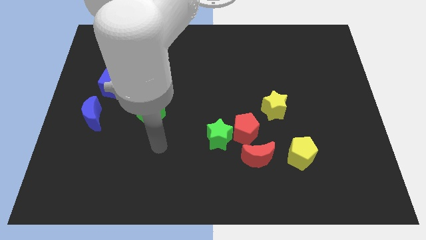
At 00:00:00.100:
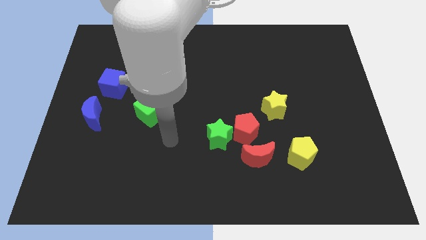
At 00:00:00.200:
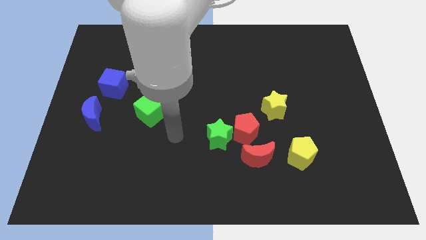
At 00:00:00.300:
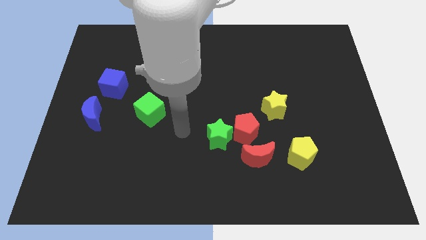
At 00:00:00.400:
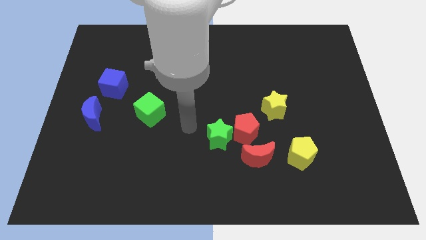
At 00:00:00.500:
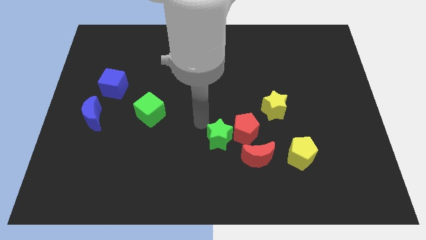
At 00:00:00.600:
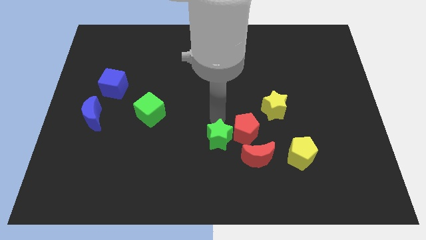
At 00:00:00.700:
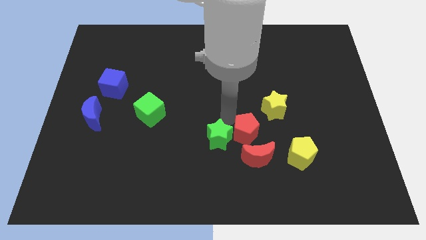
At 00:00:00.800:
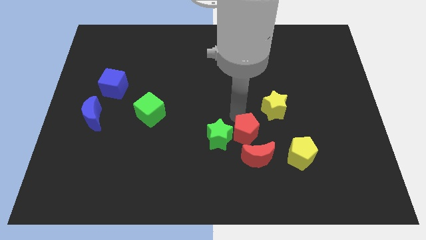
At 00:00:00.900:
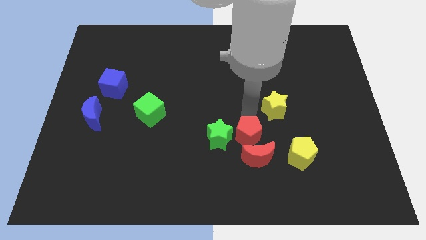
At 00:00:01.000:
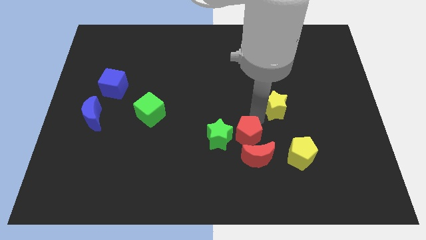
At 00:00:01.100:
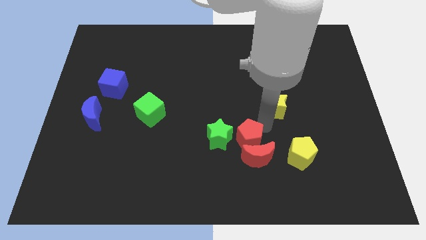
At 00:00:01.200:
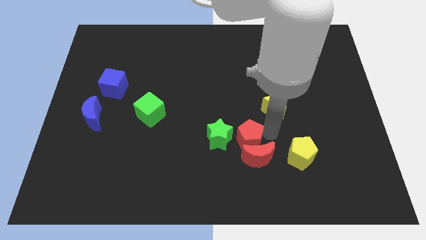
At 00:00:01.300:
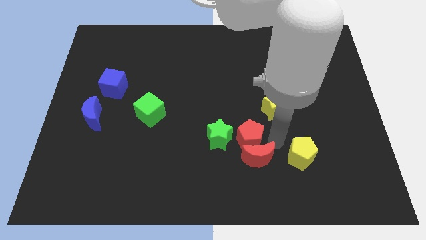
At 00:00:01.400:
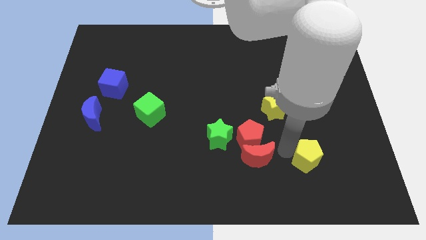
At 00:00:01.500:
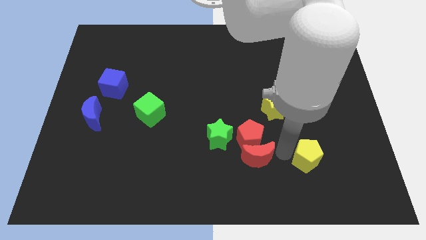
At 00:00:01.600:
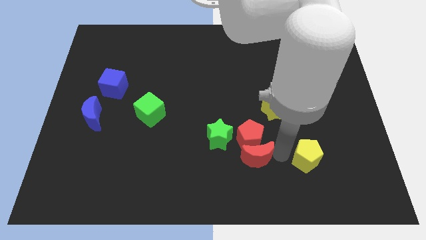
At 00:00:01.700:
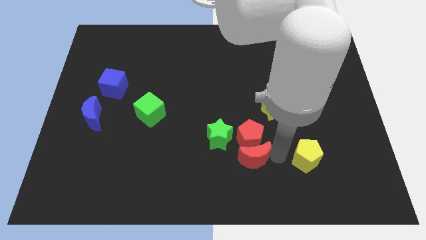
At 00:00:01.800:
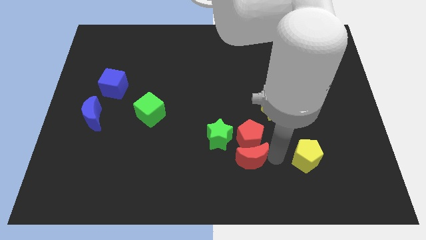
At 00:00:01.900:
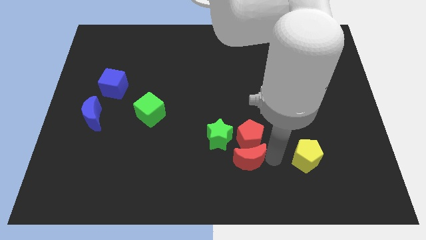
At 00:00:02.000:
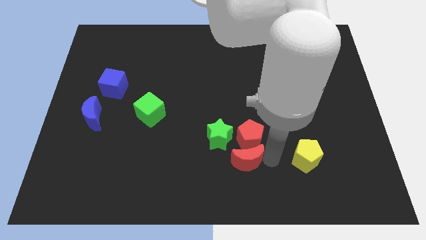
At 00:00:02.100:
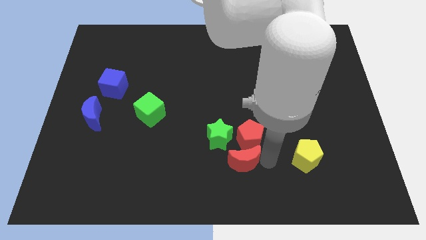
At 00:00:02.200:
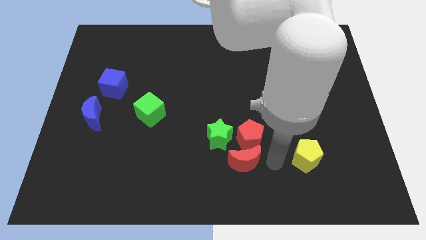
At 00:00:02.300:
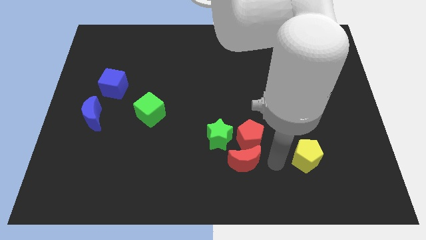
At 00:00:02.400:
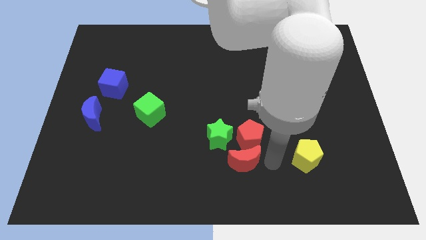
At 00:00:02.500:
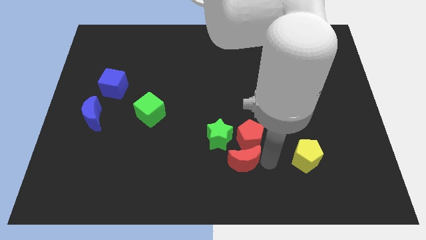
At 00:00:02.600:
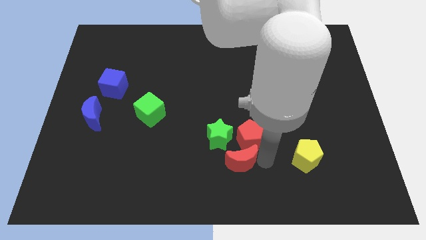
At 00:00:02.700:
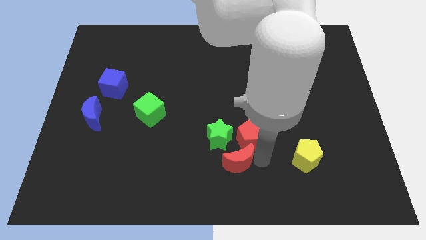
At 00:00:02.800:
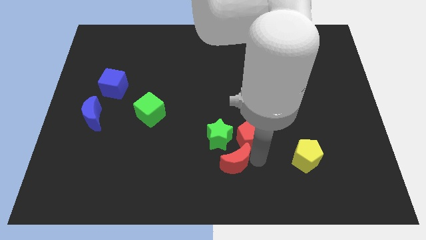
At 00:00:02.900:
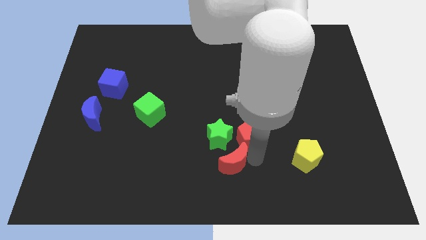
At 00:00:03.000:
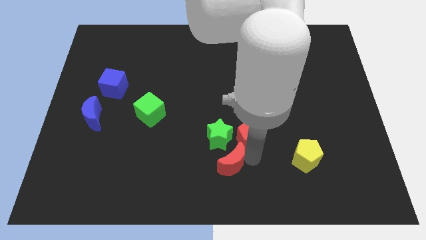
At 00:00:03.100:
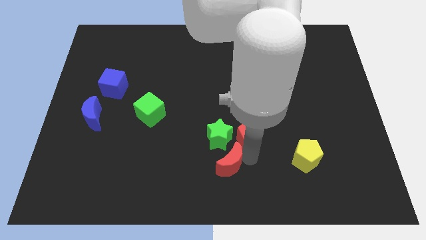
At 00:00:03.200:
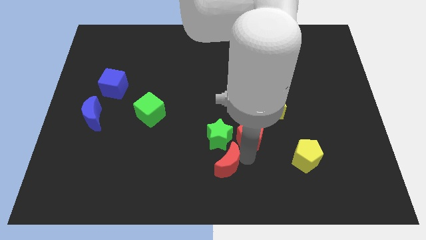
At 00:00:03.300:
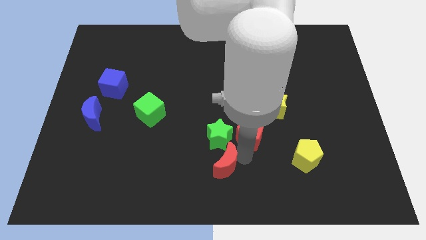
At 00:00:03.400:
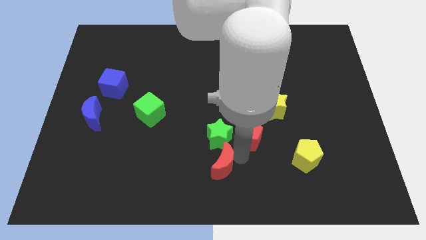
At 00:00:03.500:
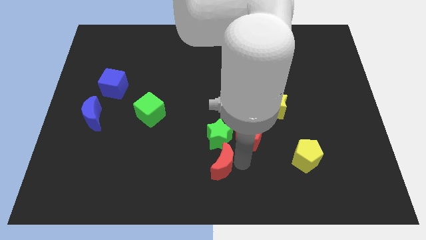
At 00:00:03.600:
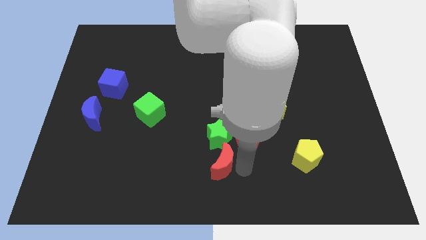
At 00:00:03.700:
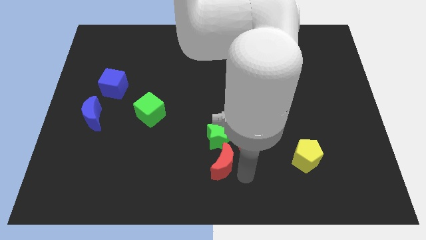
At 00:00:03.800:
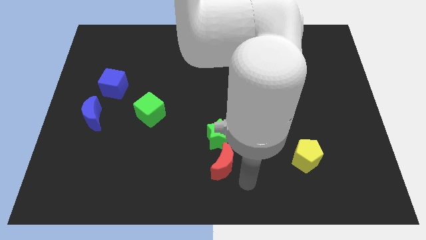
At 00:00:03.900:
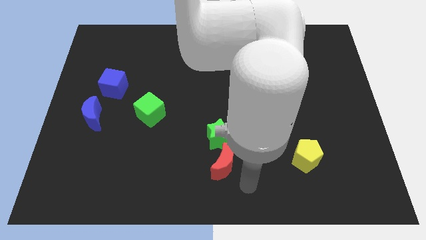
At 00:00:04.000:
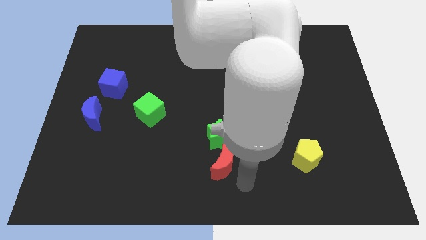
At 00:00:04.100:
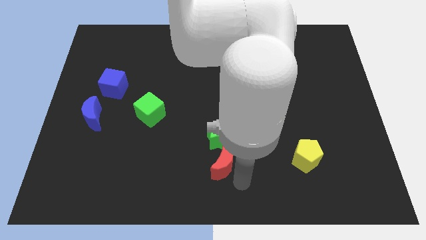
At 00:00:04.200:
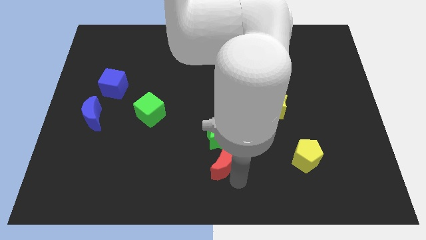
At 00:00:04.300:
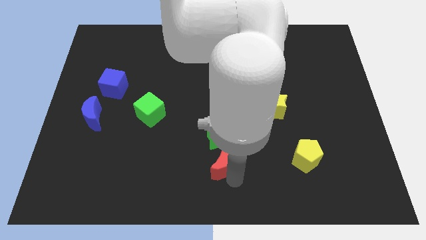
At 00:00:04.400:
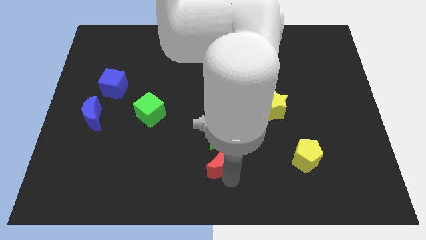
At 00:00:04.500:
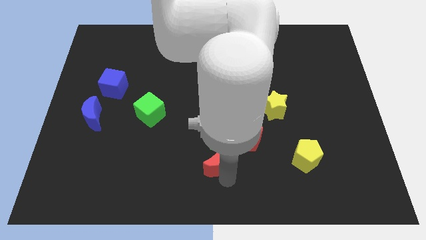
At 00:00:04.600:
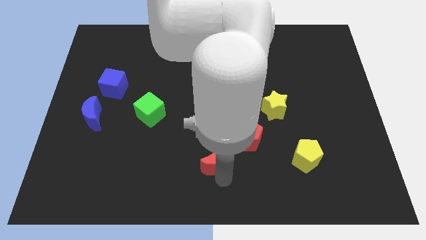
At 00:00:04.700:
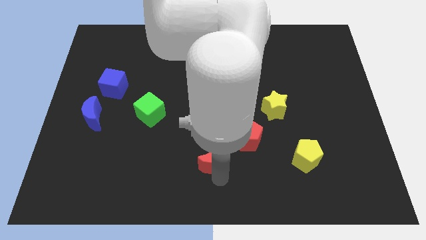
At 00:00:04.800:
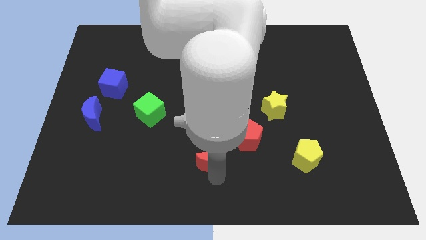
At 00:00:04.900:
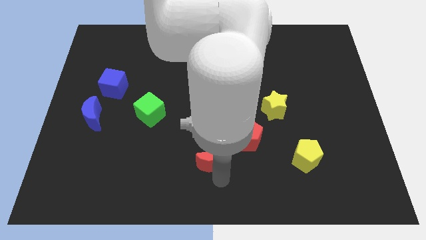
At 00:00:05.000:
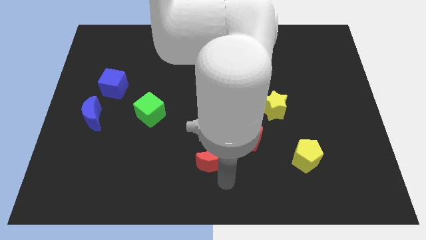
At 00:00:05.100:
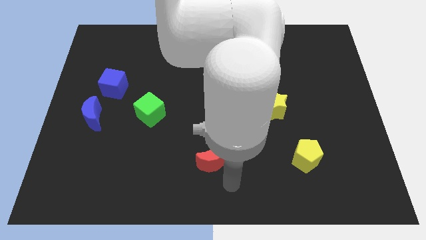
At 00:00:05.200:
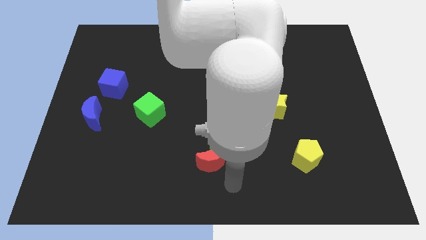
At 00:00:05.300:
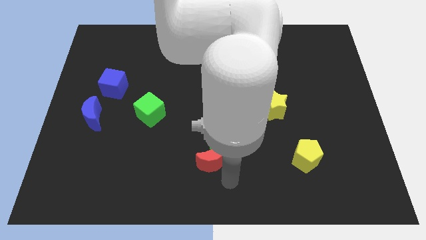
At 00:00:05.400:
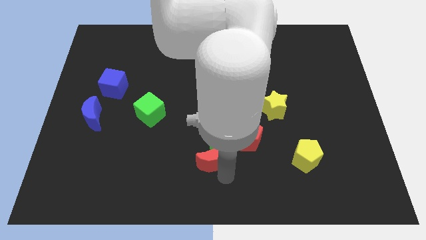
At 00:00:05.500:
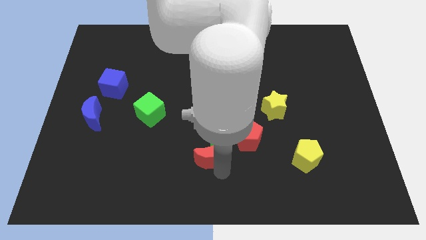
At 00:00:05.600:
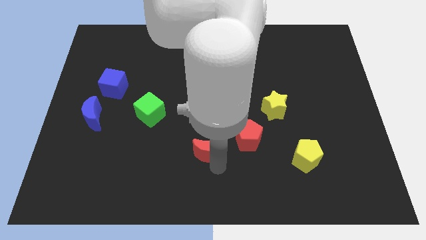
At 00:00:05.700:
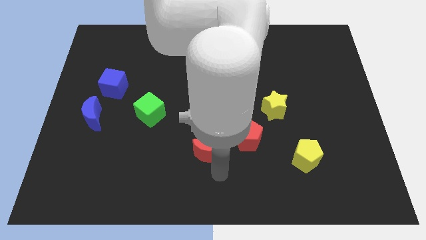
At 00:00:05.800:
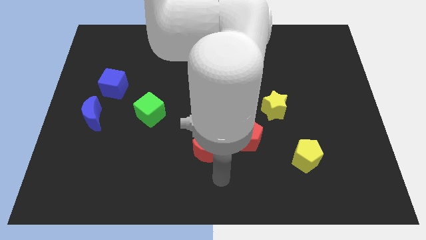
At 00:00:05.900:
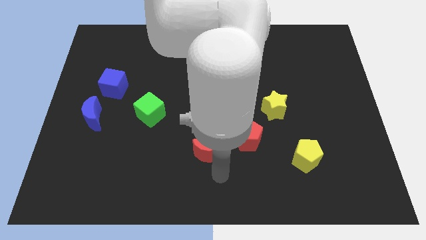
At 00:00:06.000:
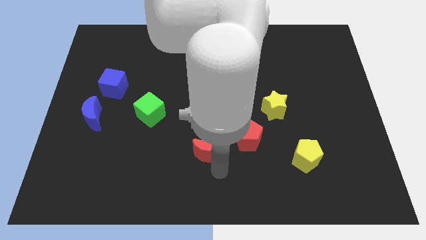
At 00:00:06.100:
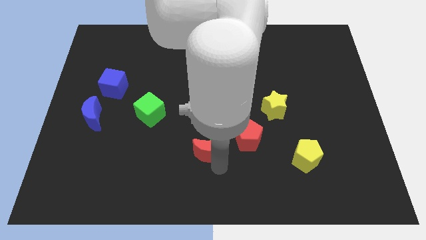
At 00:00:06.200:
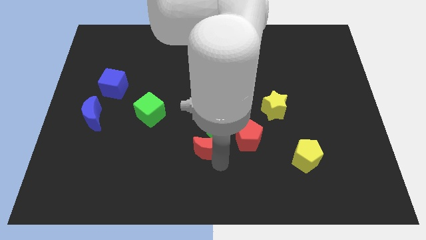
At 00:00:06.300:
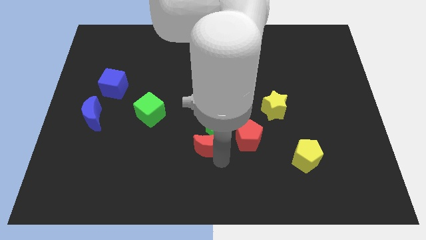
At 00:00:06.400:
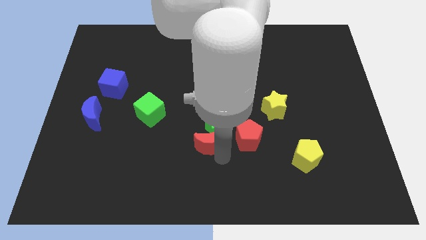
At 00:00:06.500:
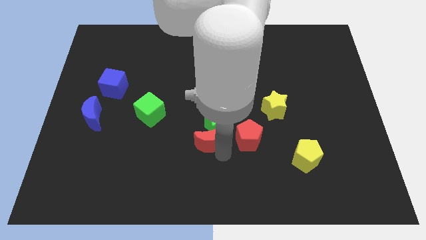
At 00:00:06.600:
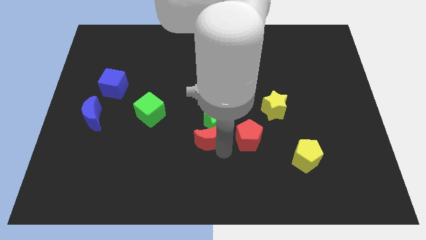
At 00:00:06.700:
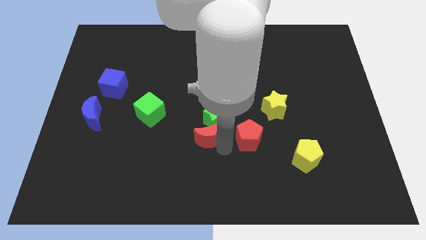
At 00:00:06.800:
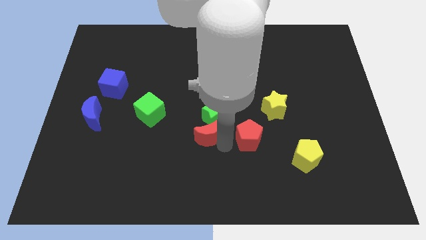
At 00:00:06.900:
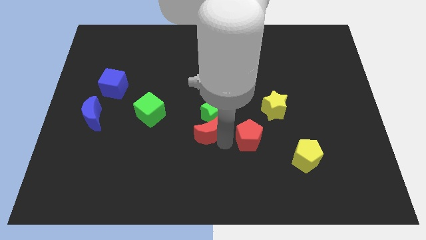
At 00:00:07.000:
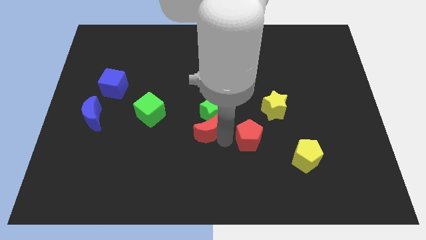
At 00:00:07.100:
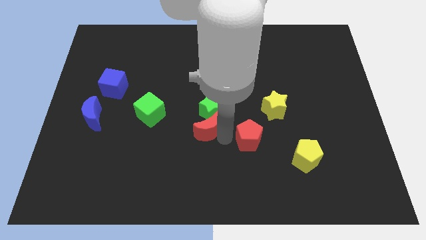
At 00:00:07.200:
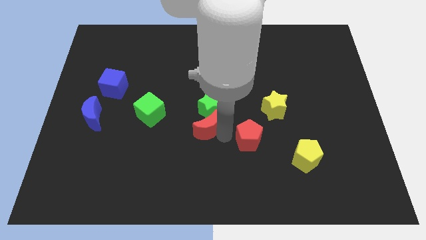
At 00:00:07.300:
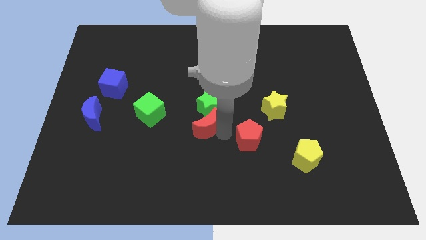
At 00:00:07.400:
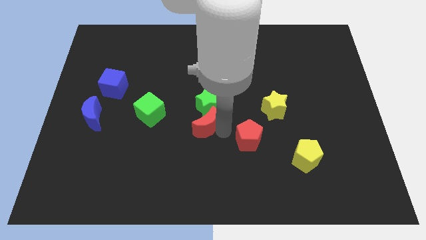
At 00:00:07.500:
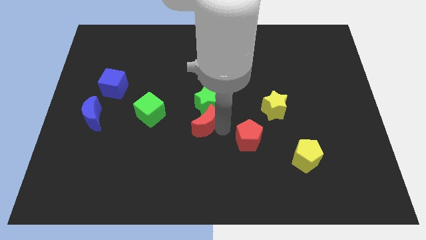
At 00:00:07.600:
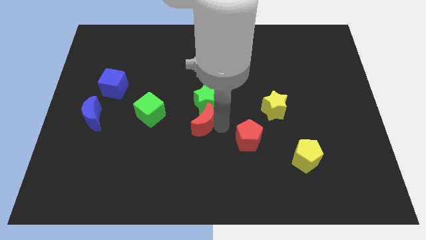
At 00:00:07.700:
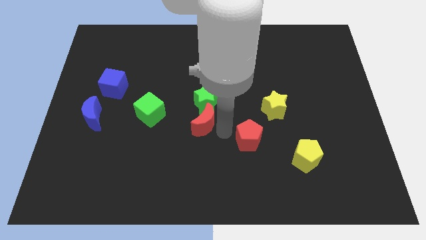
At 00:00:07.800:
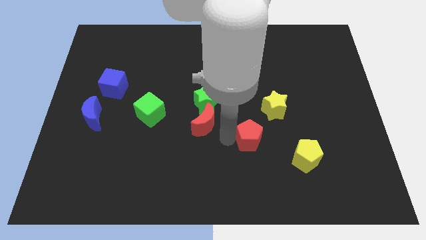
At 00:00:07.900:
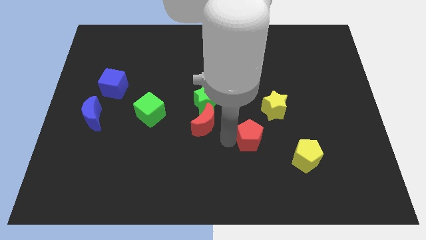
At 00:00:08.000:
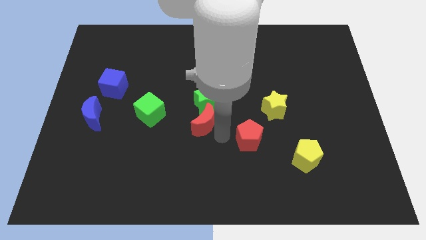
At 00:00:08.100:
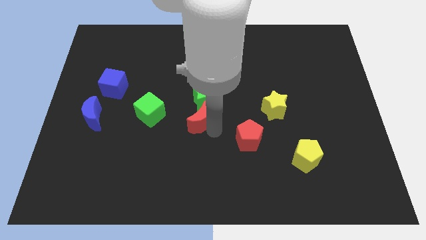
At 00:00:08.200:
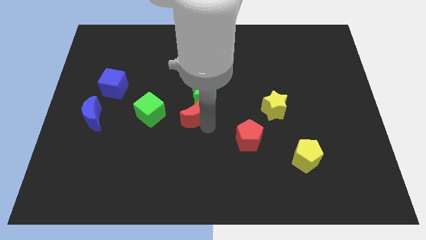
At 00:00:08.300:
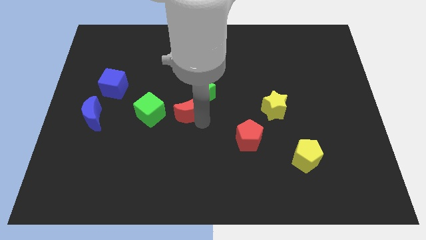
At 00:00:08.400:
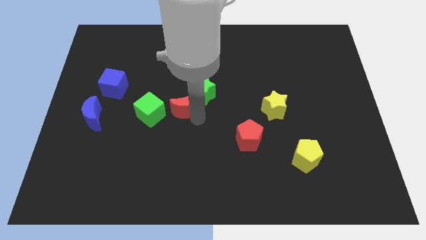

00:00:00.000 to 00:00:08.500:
move the red moon up and to the left
